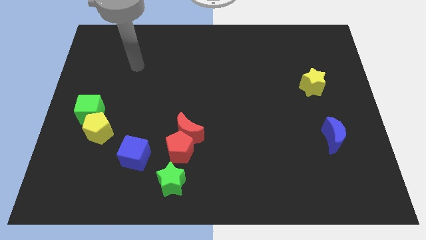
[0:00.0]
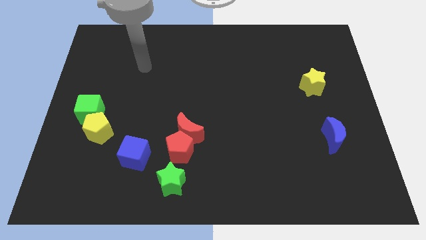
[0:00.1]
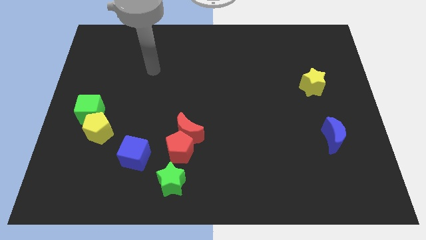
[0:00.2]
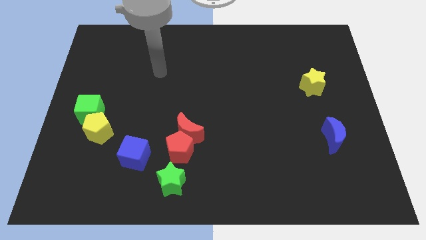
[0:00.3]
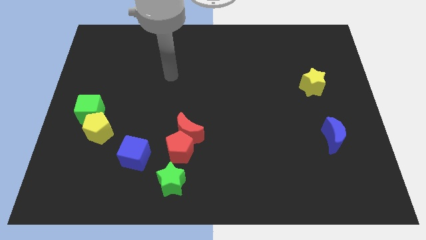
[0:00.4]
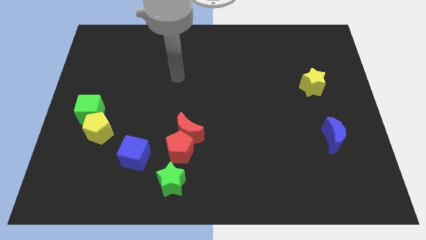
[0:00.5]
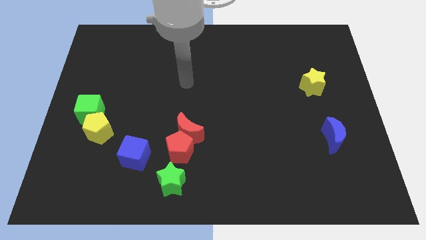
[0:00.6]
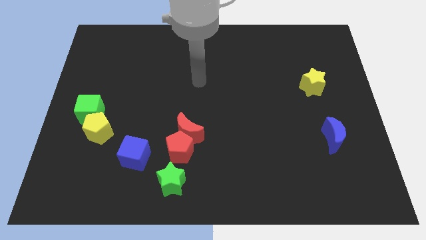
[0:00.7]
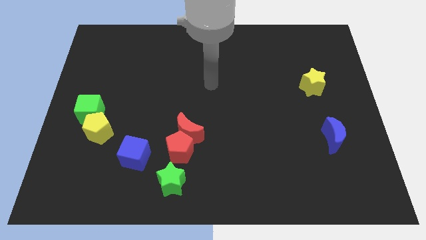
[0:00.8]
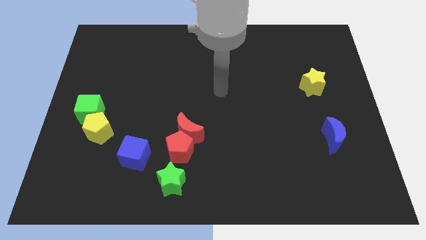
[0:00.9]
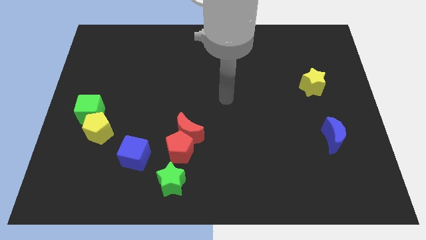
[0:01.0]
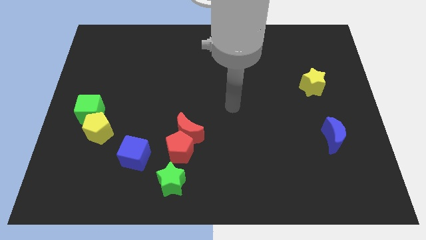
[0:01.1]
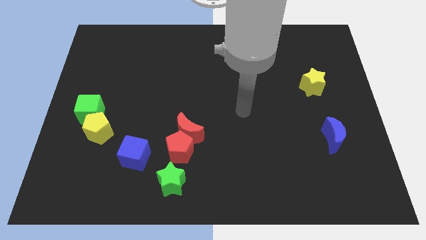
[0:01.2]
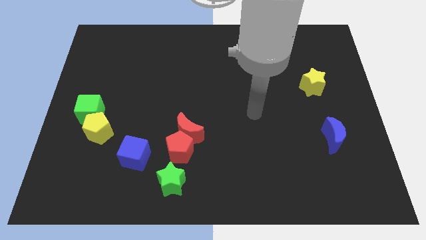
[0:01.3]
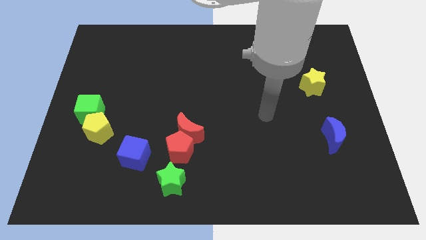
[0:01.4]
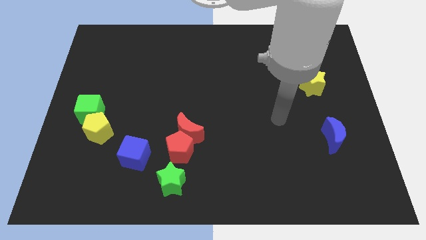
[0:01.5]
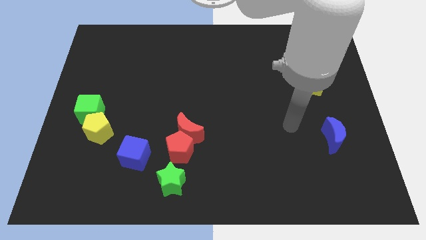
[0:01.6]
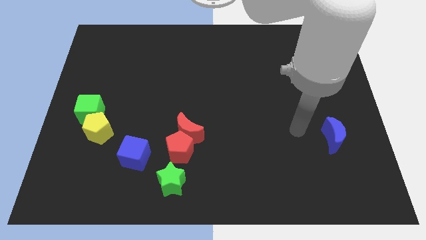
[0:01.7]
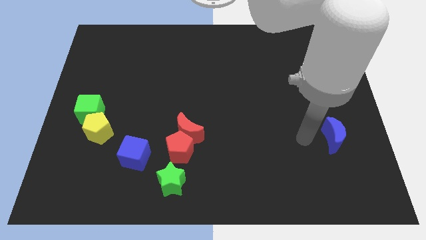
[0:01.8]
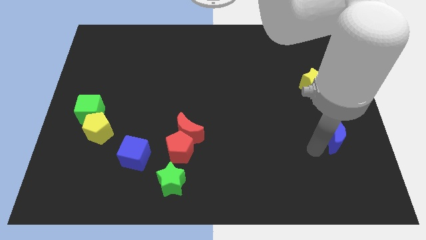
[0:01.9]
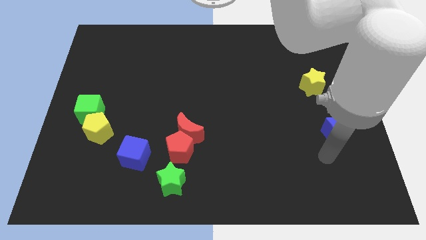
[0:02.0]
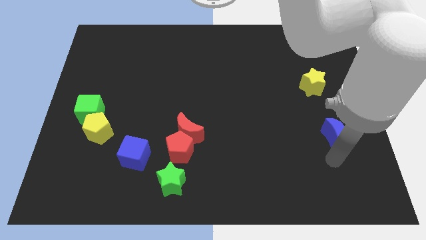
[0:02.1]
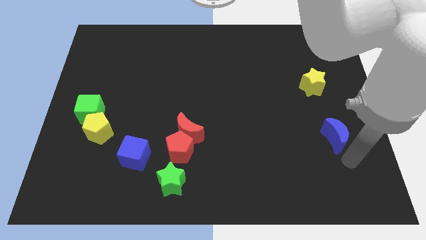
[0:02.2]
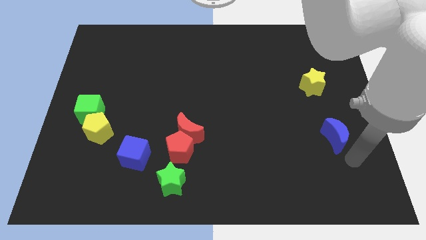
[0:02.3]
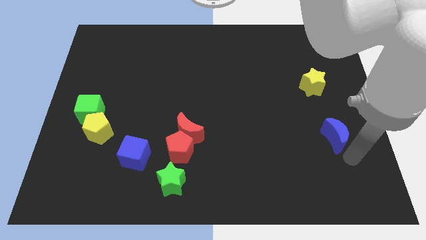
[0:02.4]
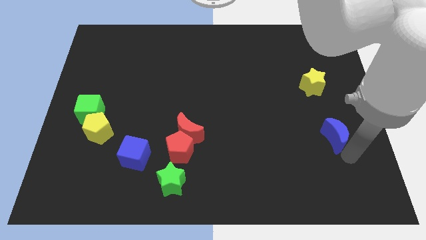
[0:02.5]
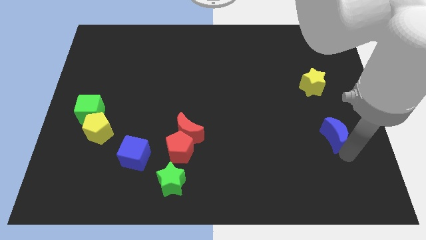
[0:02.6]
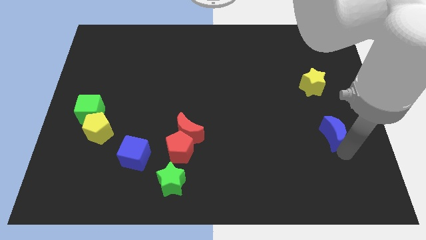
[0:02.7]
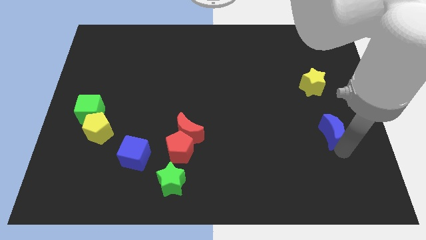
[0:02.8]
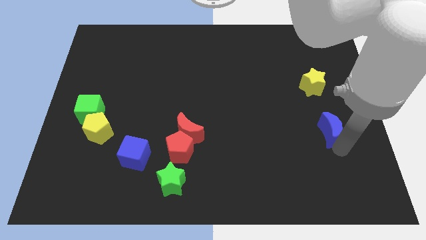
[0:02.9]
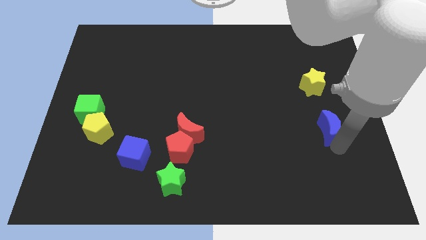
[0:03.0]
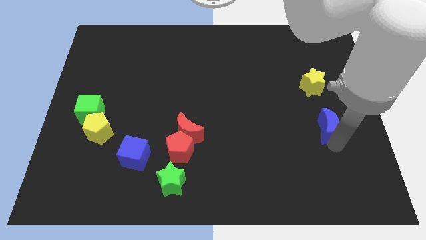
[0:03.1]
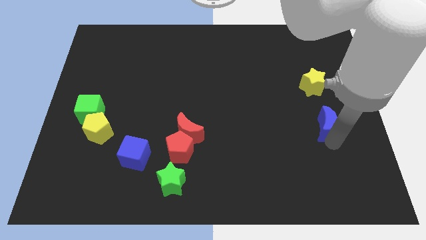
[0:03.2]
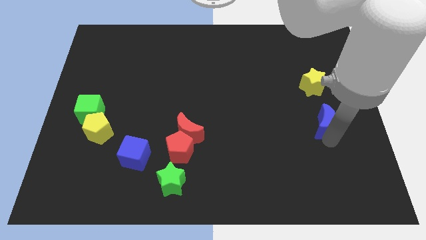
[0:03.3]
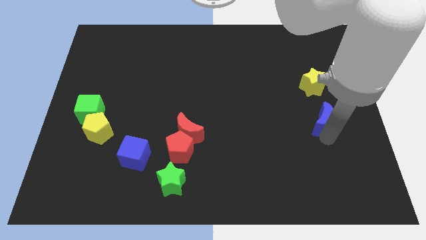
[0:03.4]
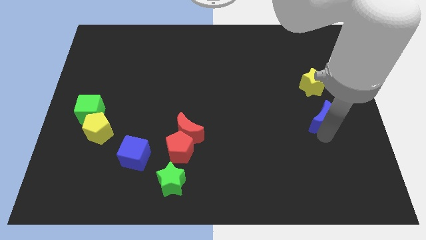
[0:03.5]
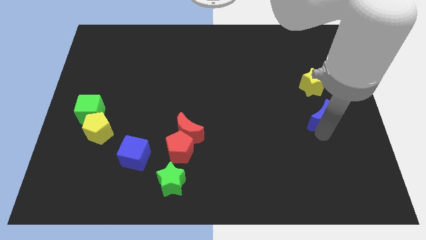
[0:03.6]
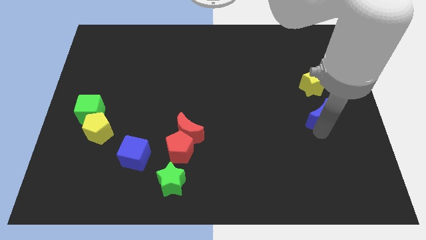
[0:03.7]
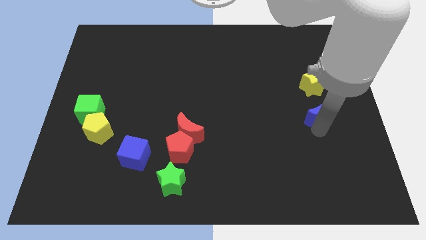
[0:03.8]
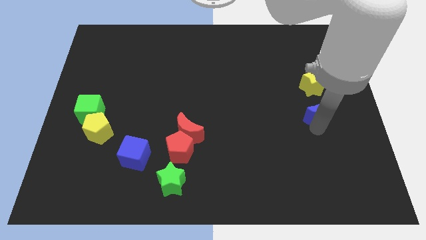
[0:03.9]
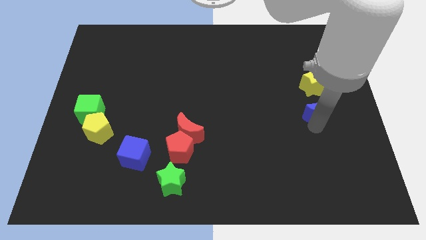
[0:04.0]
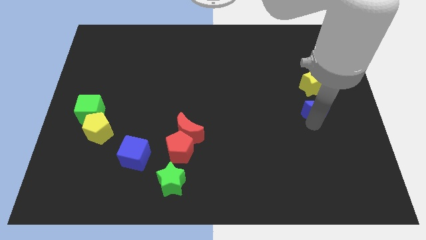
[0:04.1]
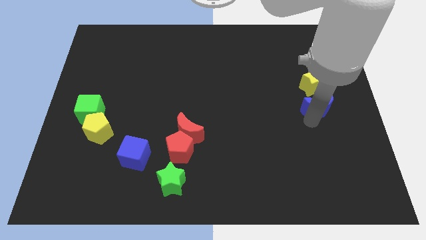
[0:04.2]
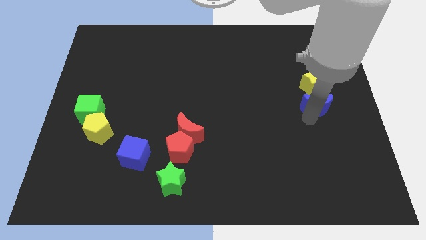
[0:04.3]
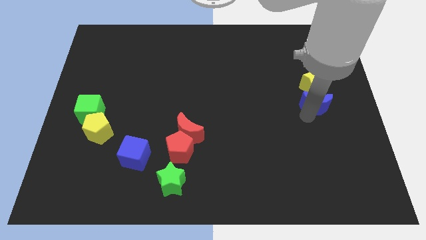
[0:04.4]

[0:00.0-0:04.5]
slide the blue moon to the yellow star

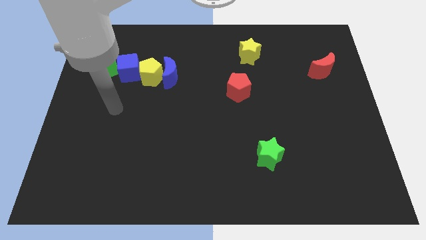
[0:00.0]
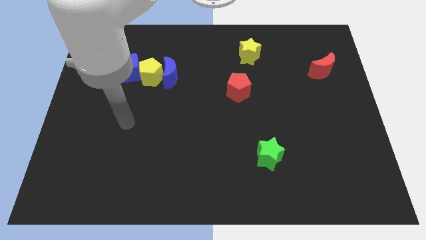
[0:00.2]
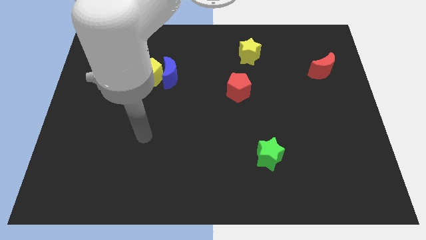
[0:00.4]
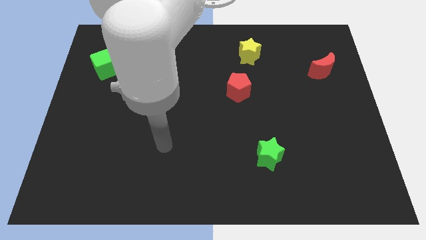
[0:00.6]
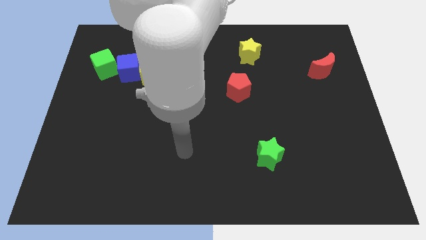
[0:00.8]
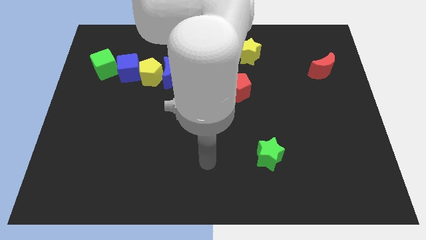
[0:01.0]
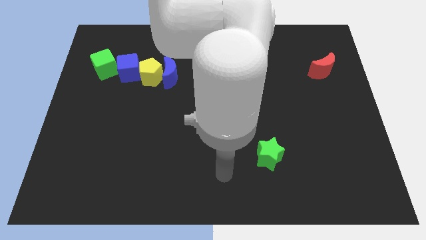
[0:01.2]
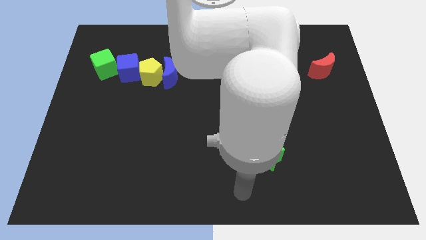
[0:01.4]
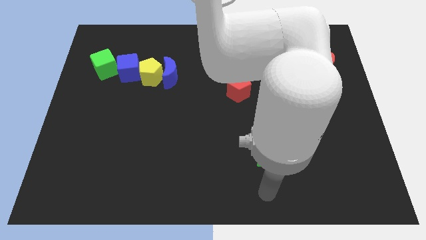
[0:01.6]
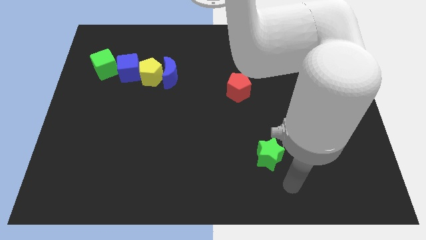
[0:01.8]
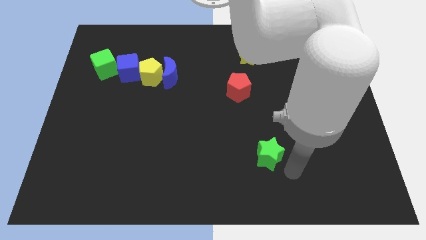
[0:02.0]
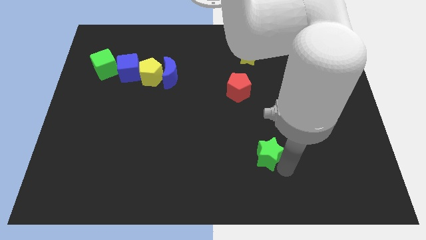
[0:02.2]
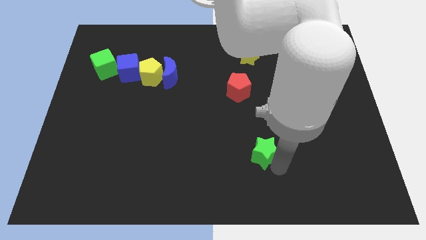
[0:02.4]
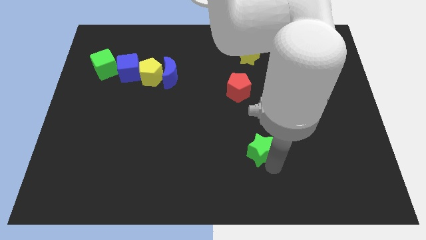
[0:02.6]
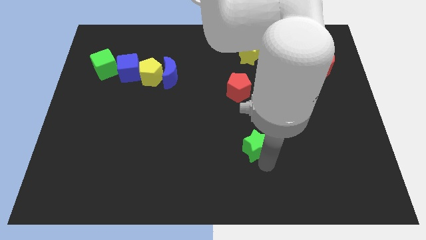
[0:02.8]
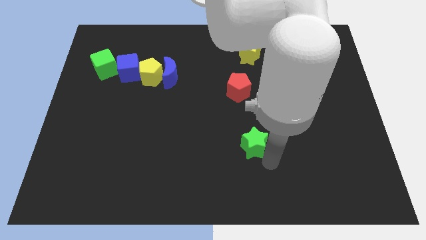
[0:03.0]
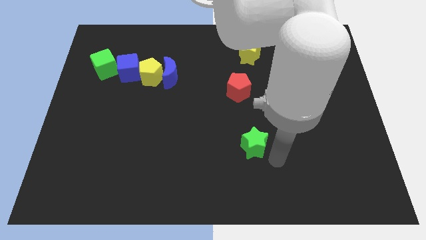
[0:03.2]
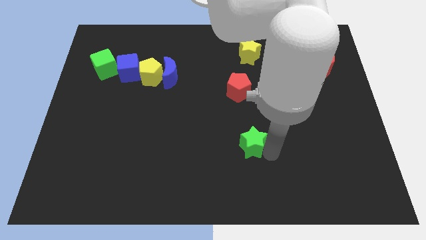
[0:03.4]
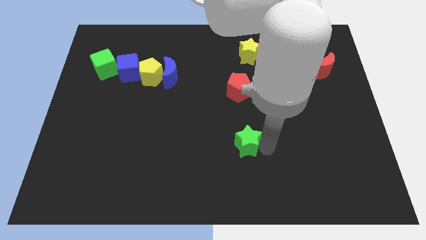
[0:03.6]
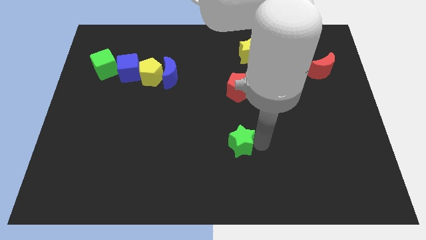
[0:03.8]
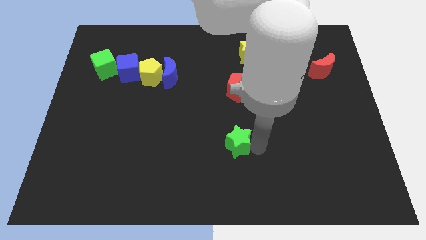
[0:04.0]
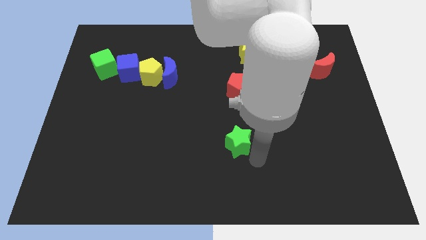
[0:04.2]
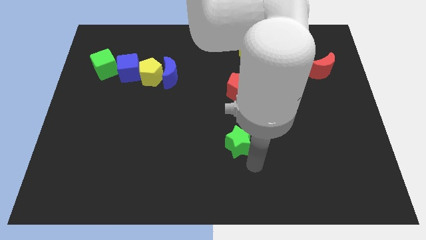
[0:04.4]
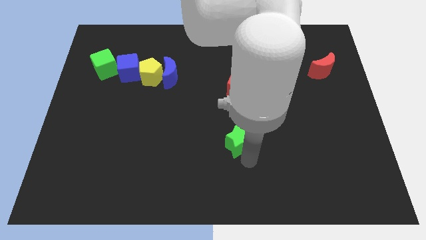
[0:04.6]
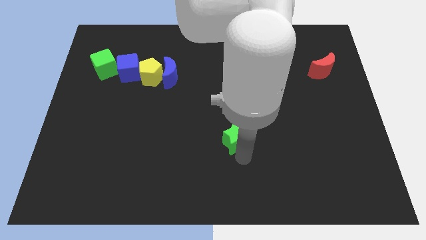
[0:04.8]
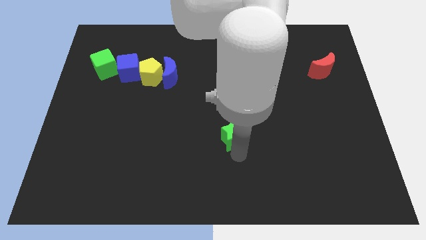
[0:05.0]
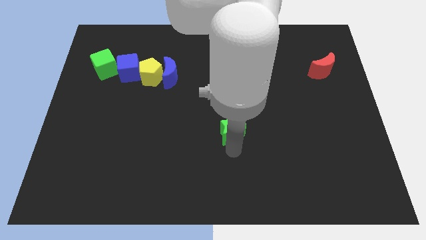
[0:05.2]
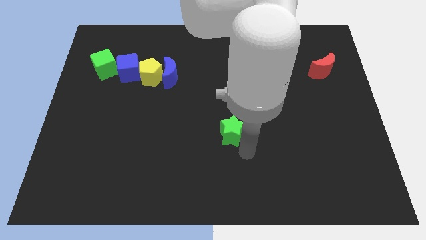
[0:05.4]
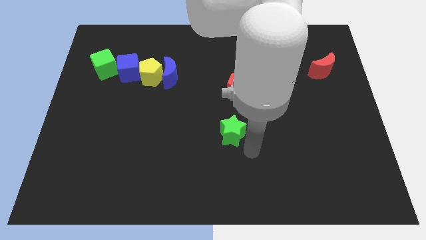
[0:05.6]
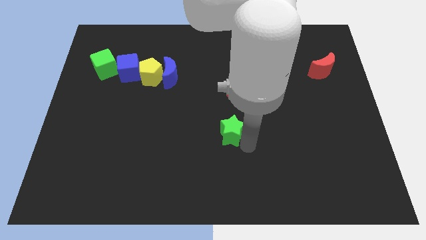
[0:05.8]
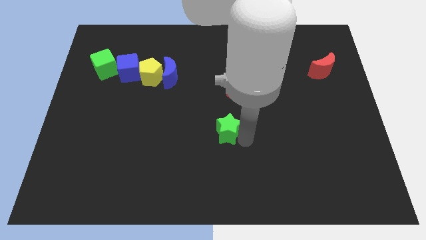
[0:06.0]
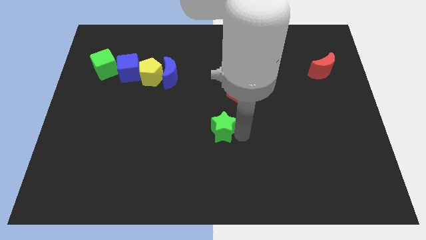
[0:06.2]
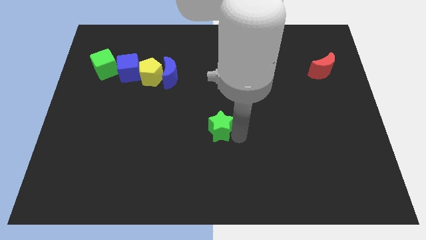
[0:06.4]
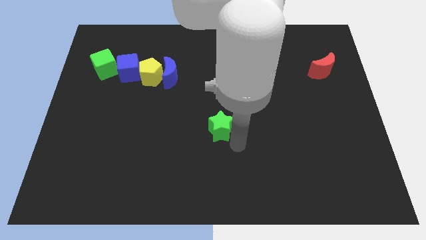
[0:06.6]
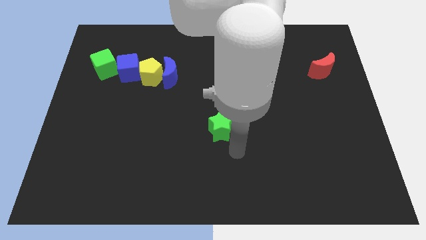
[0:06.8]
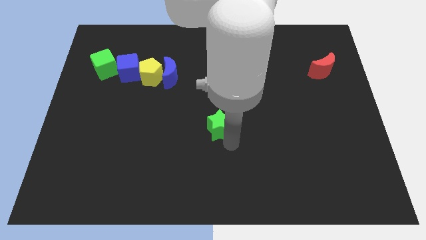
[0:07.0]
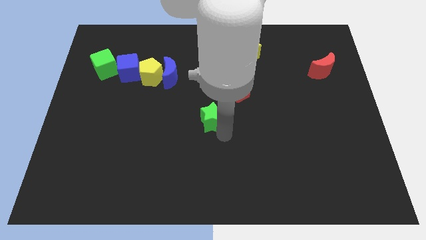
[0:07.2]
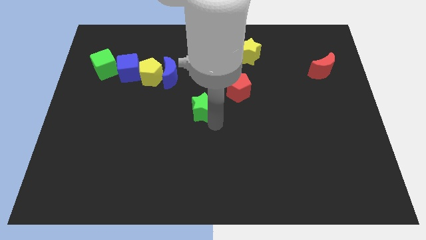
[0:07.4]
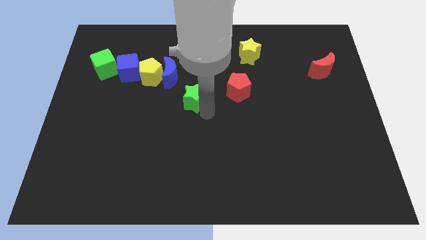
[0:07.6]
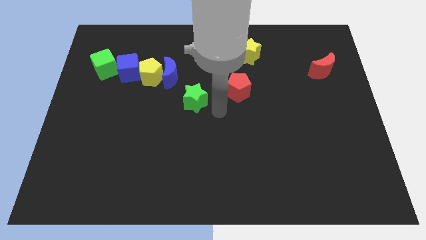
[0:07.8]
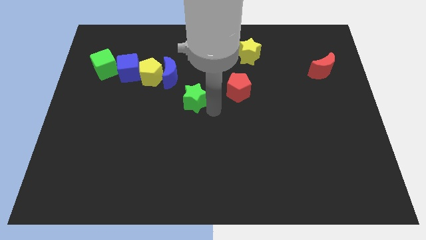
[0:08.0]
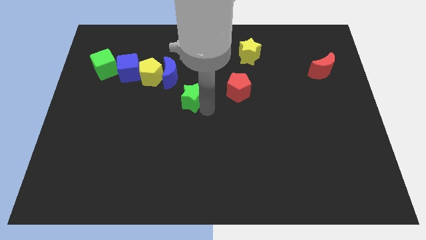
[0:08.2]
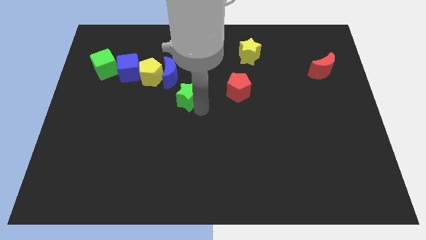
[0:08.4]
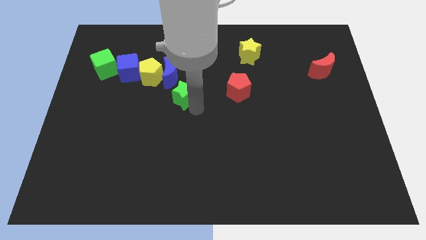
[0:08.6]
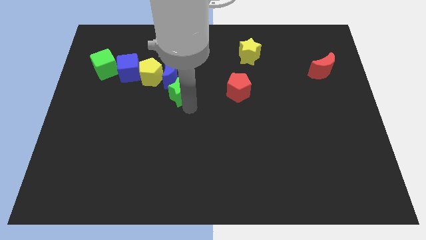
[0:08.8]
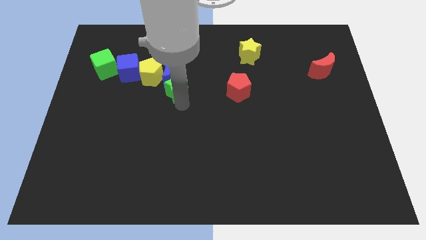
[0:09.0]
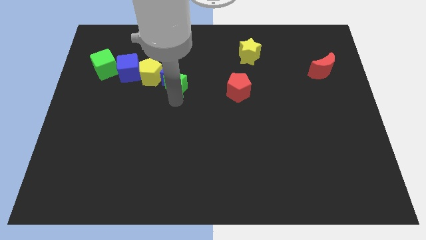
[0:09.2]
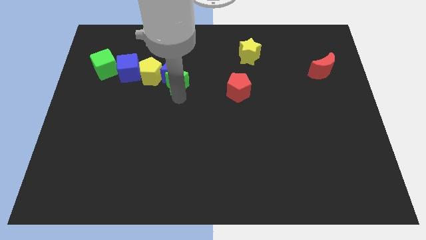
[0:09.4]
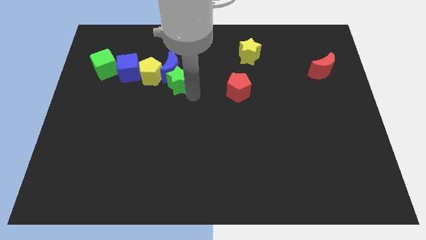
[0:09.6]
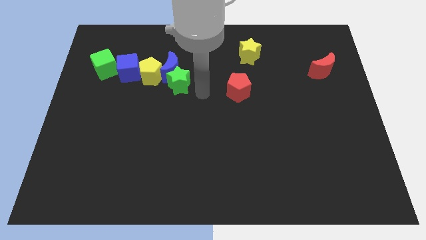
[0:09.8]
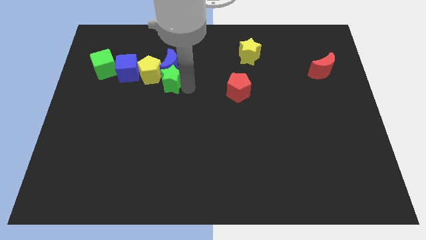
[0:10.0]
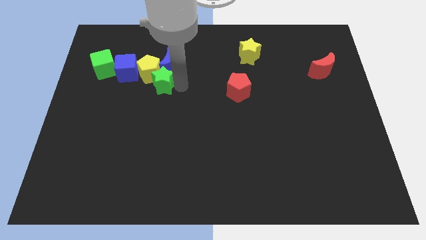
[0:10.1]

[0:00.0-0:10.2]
put the green star close to the yellow pentagon
